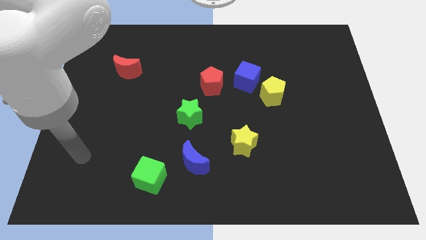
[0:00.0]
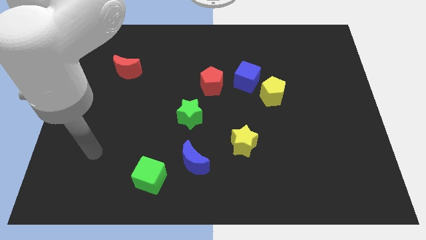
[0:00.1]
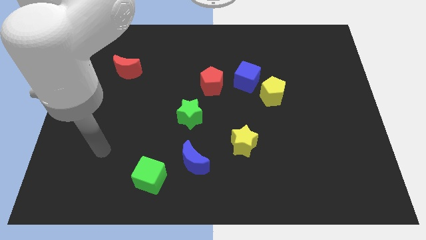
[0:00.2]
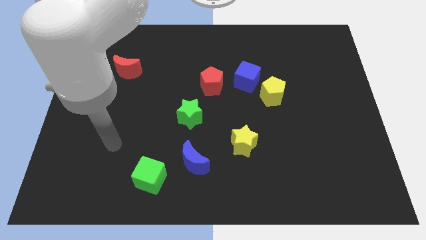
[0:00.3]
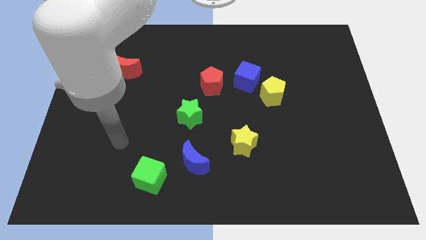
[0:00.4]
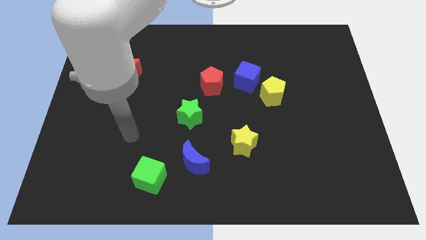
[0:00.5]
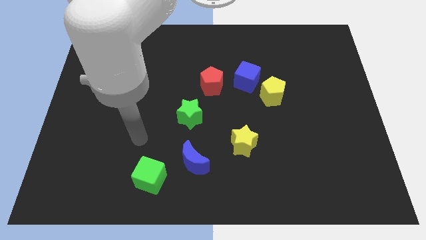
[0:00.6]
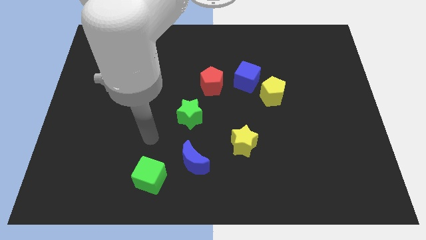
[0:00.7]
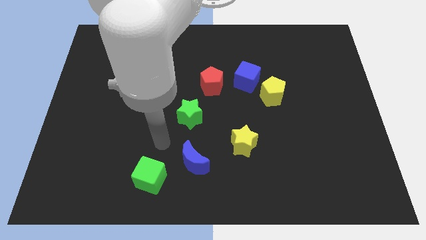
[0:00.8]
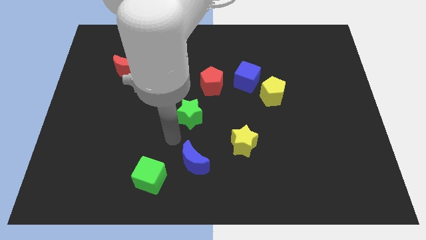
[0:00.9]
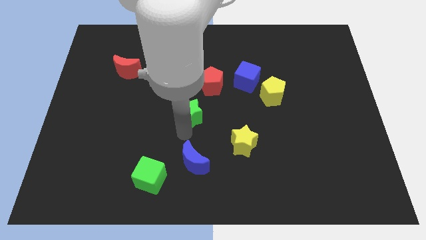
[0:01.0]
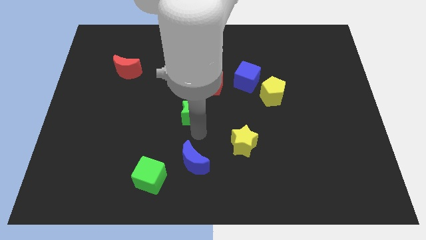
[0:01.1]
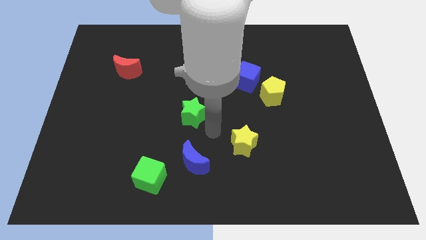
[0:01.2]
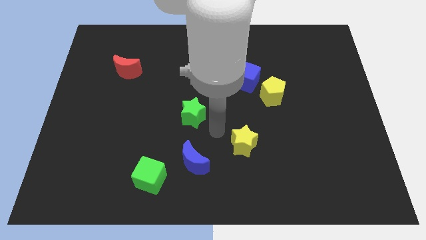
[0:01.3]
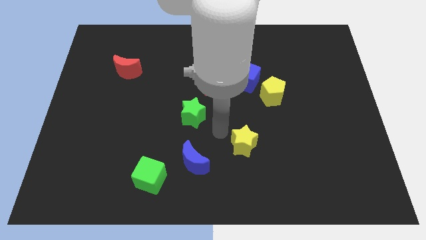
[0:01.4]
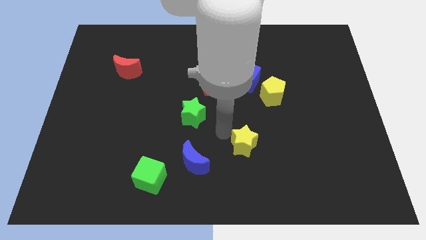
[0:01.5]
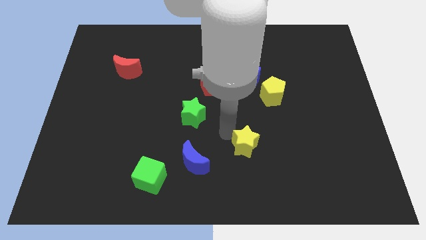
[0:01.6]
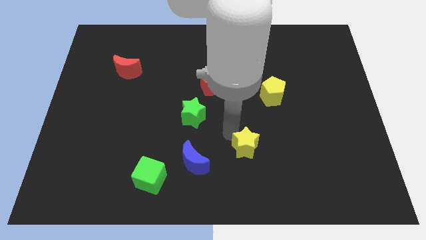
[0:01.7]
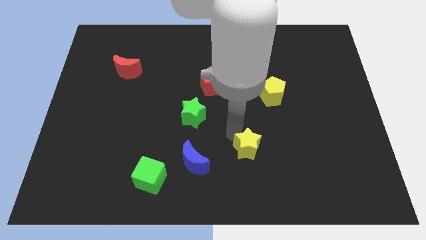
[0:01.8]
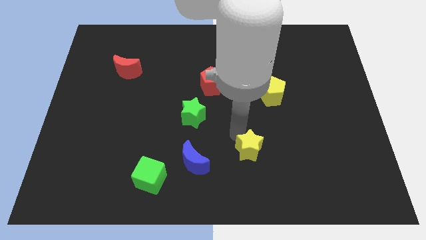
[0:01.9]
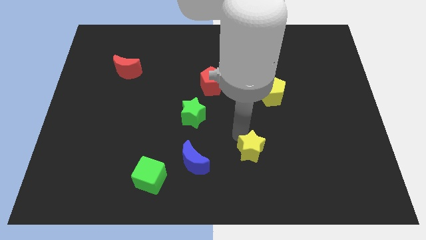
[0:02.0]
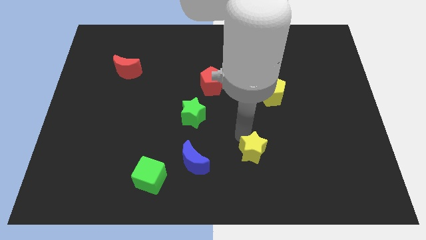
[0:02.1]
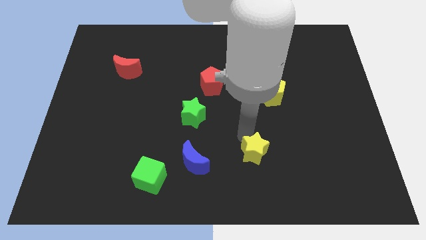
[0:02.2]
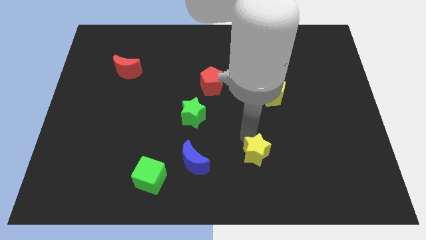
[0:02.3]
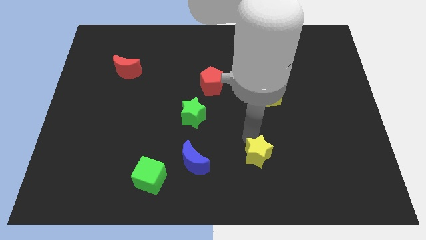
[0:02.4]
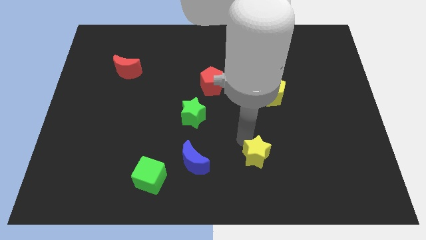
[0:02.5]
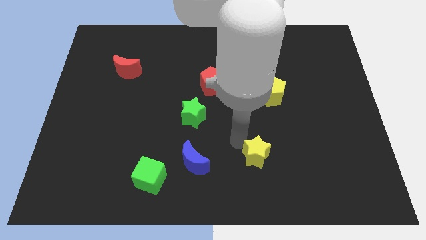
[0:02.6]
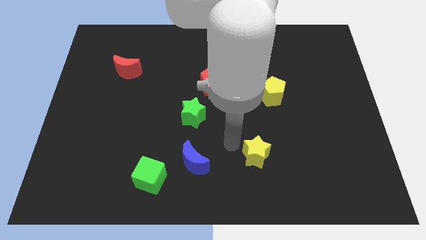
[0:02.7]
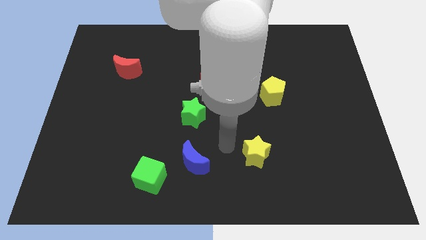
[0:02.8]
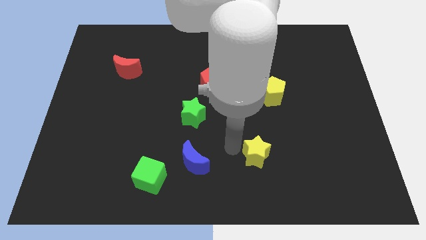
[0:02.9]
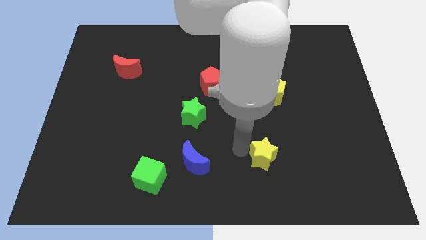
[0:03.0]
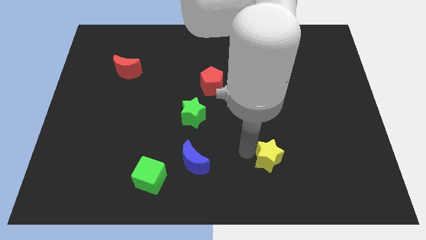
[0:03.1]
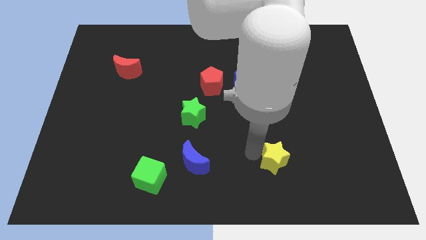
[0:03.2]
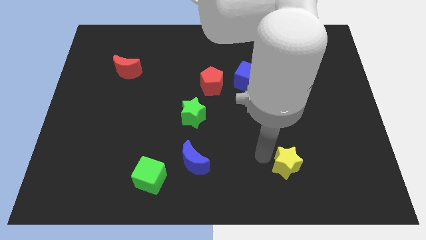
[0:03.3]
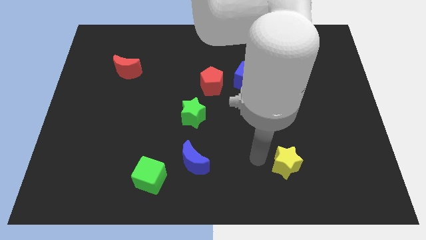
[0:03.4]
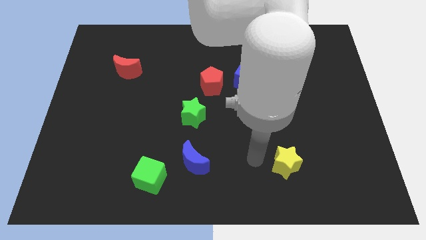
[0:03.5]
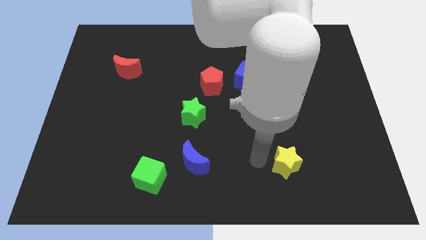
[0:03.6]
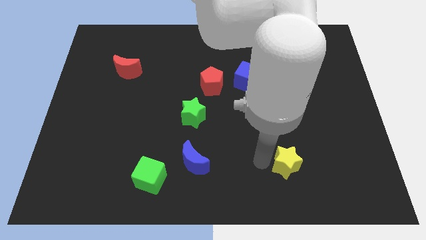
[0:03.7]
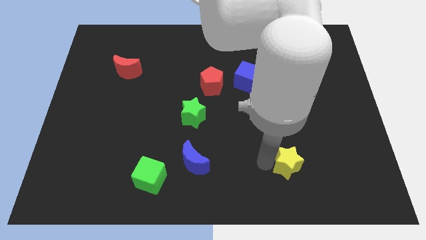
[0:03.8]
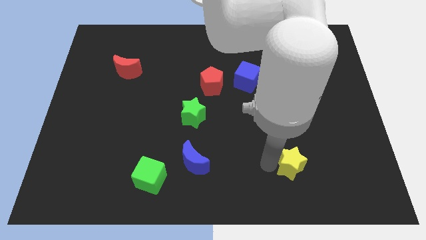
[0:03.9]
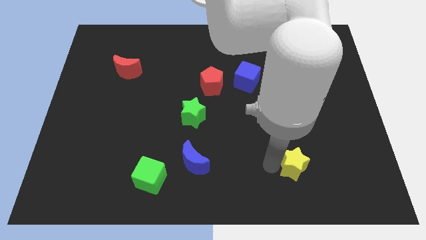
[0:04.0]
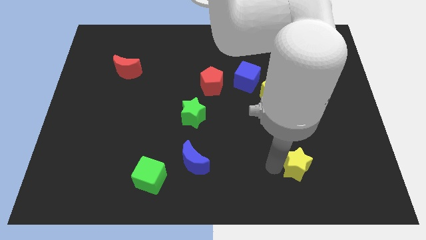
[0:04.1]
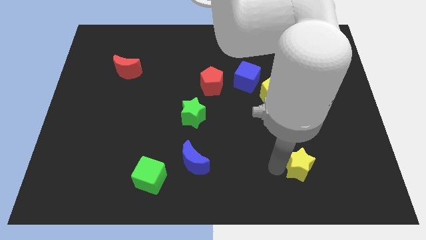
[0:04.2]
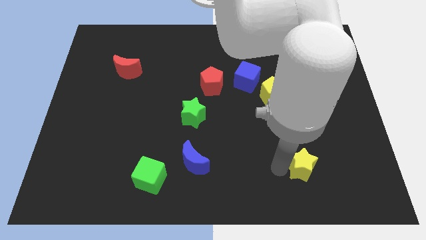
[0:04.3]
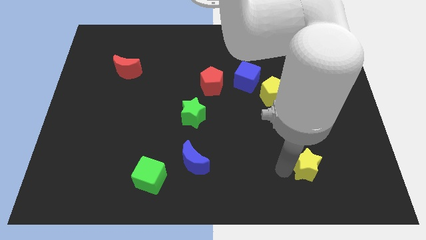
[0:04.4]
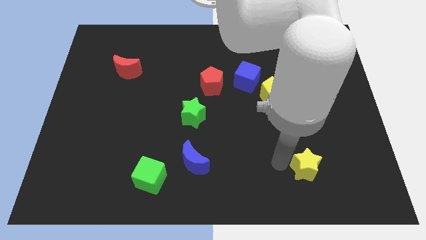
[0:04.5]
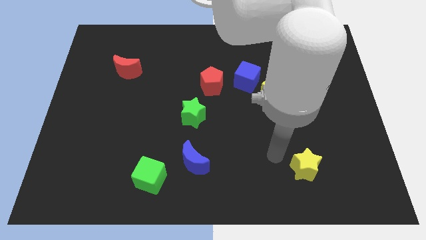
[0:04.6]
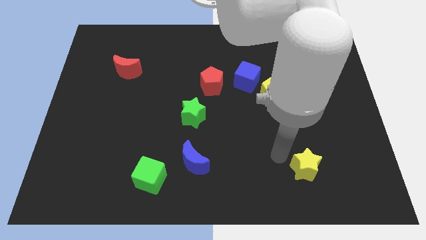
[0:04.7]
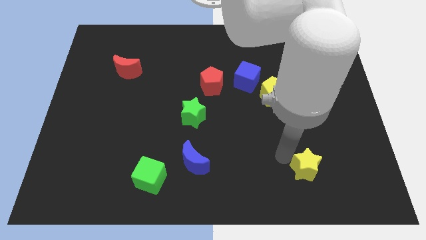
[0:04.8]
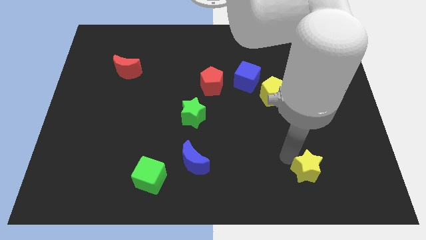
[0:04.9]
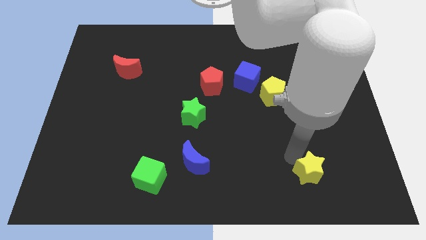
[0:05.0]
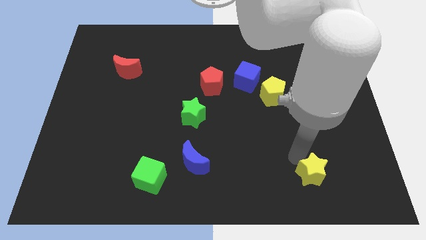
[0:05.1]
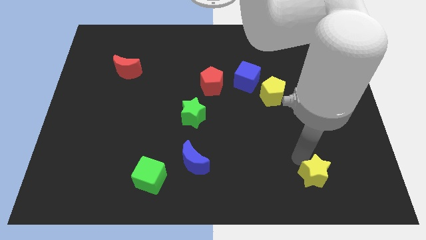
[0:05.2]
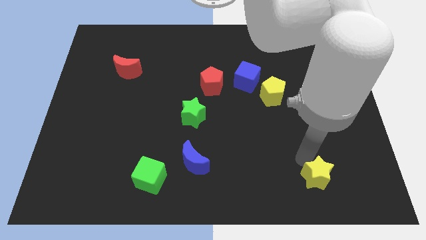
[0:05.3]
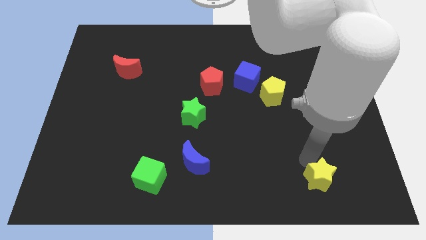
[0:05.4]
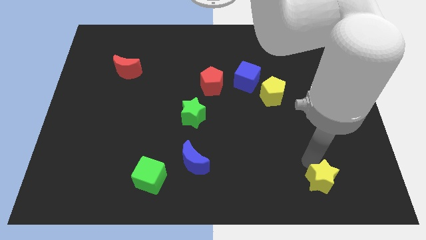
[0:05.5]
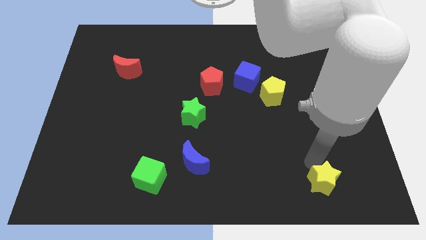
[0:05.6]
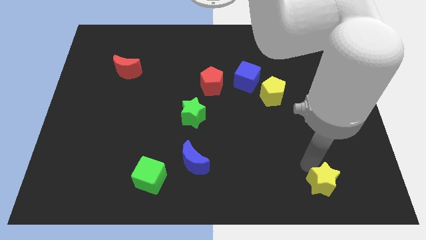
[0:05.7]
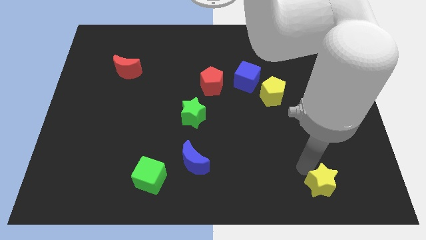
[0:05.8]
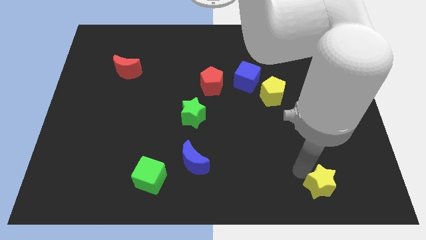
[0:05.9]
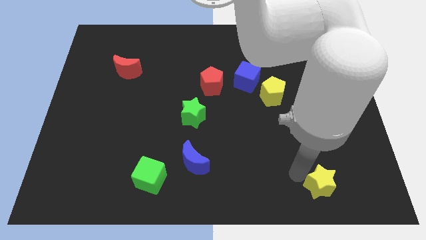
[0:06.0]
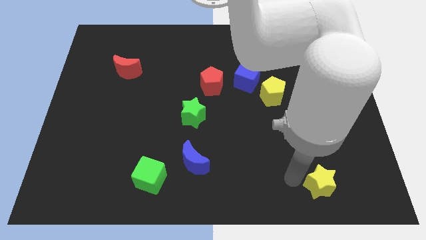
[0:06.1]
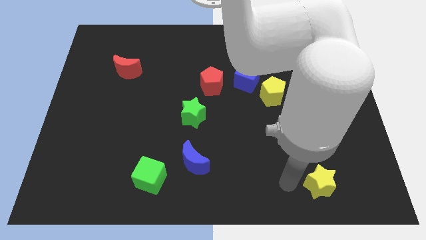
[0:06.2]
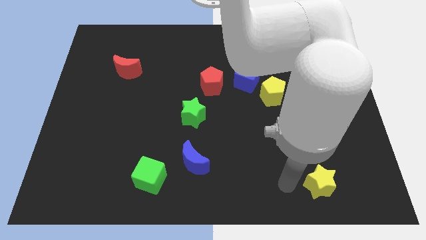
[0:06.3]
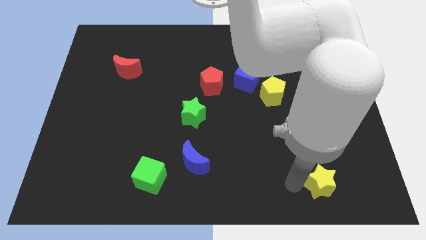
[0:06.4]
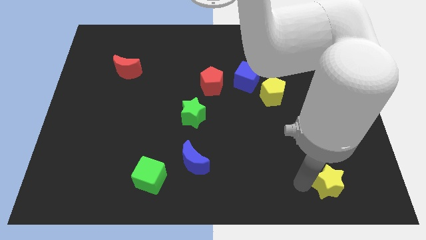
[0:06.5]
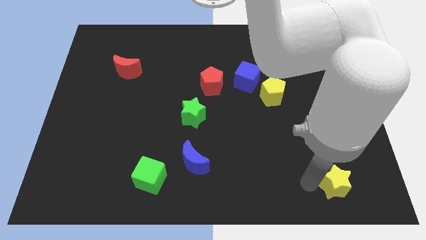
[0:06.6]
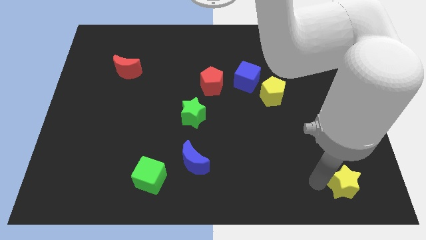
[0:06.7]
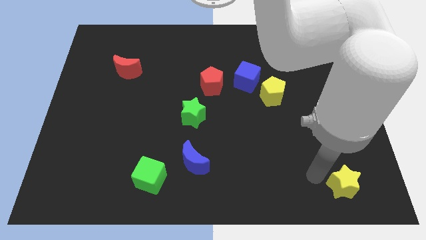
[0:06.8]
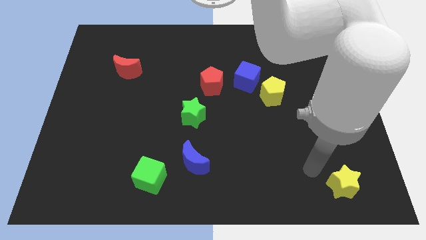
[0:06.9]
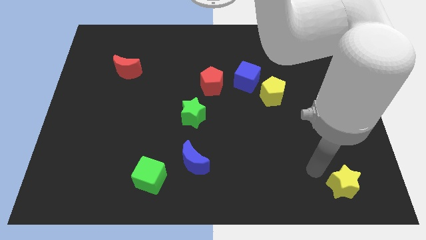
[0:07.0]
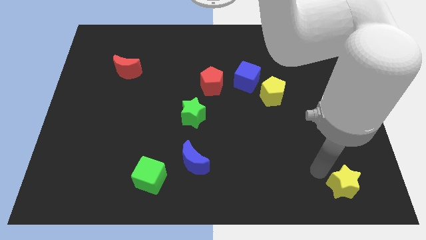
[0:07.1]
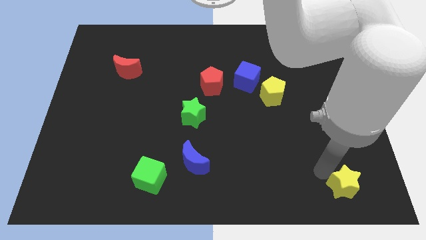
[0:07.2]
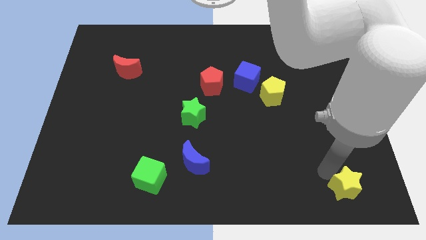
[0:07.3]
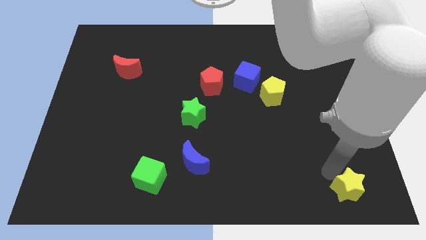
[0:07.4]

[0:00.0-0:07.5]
put the yellow star to the bottom right of the board
